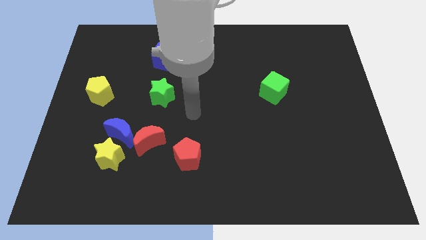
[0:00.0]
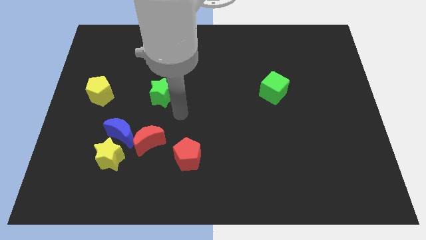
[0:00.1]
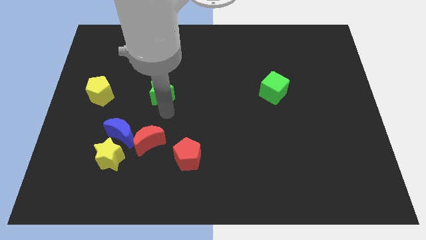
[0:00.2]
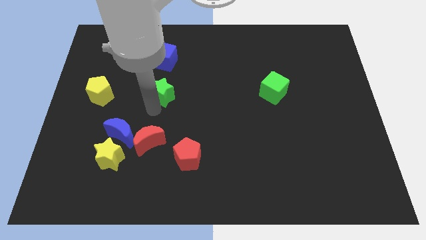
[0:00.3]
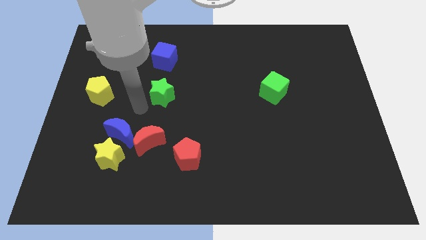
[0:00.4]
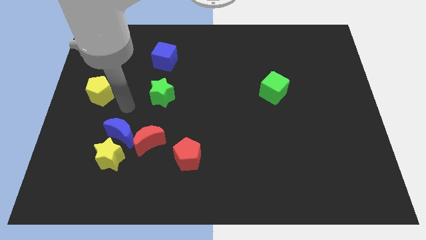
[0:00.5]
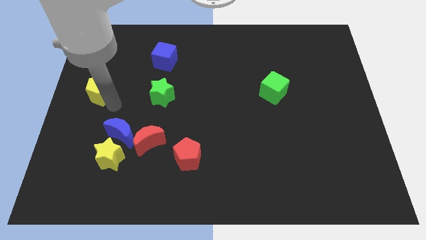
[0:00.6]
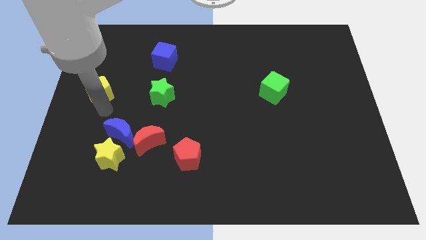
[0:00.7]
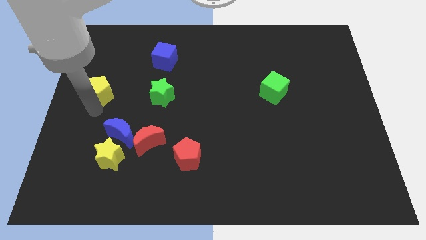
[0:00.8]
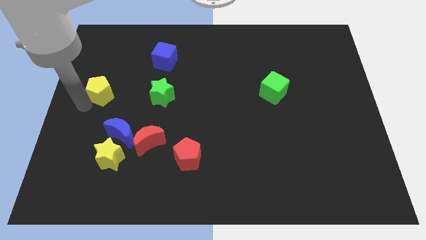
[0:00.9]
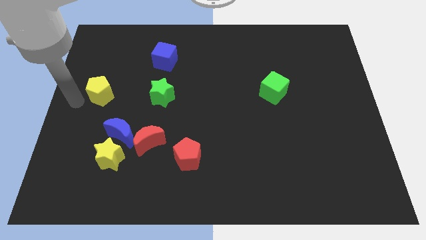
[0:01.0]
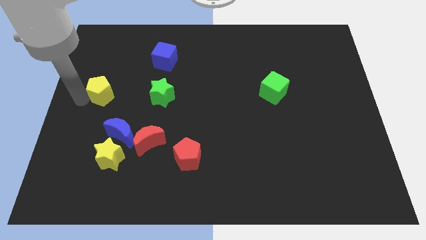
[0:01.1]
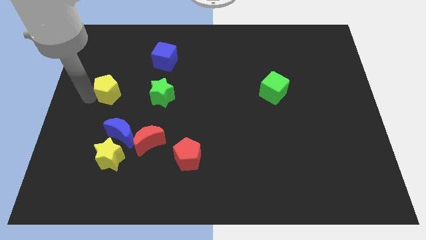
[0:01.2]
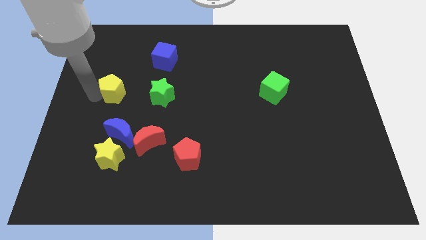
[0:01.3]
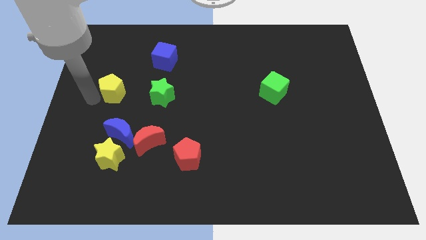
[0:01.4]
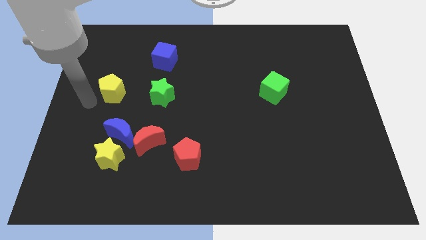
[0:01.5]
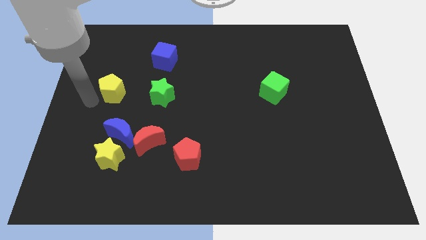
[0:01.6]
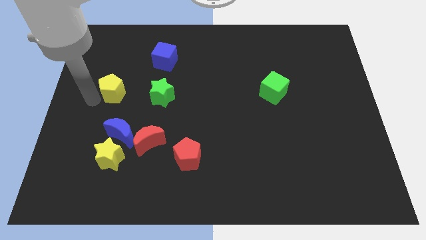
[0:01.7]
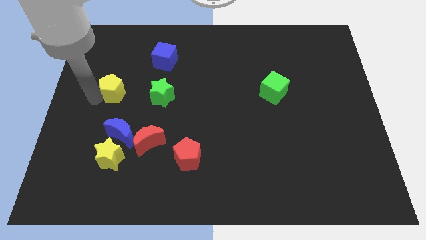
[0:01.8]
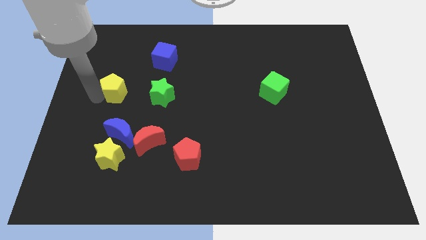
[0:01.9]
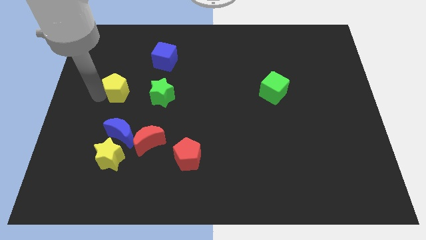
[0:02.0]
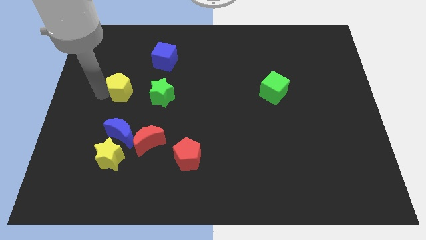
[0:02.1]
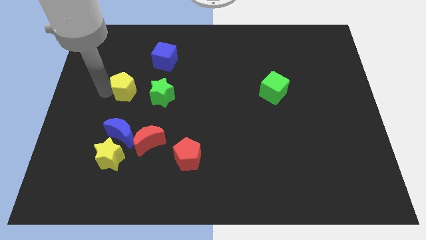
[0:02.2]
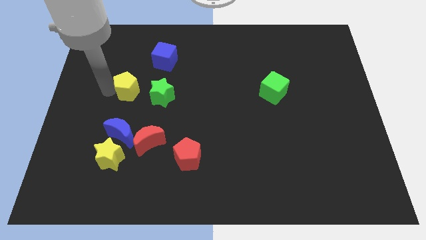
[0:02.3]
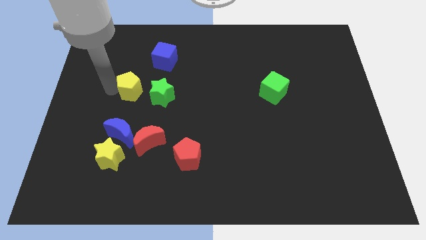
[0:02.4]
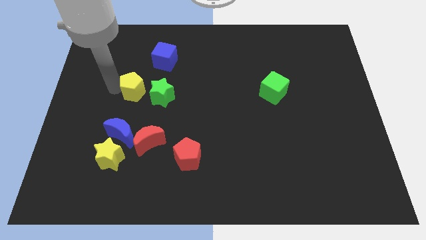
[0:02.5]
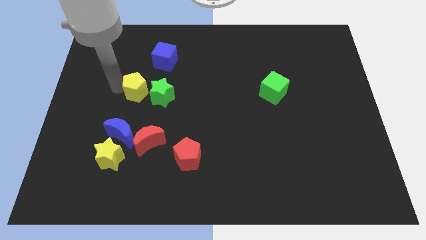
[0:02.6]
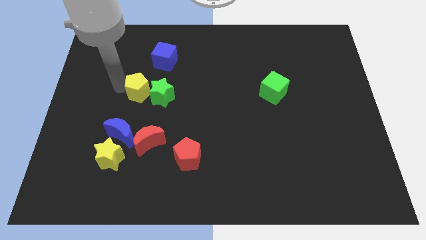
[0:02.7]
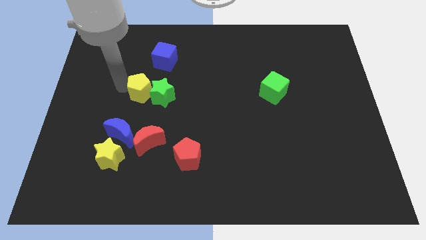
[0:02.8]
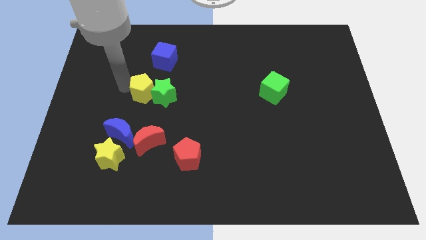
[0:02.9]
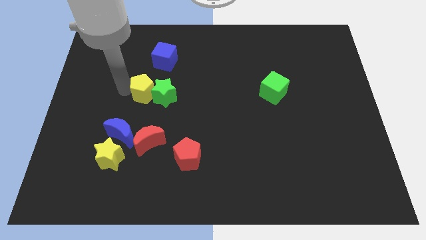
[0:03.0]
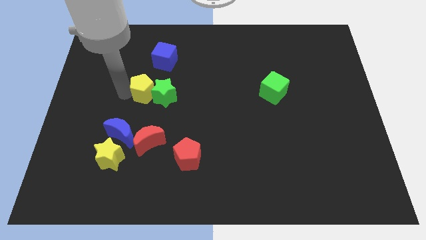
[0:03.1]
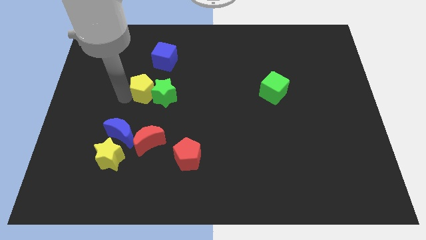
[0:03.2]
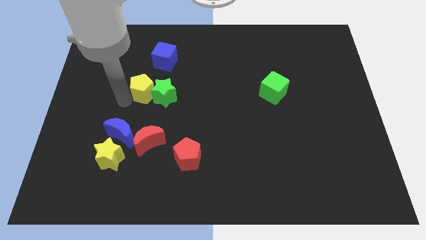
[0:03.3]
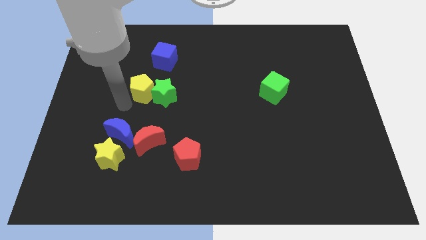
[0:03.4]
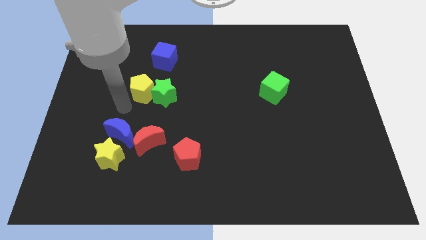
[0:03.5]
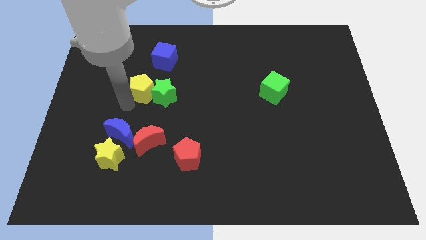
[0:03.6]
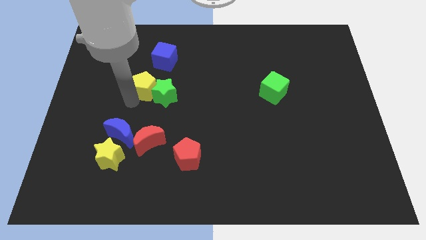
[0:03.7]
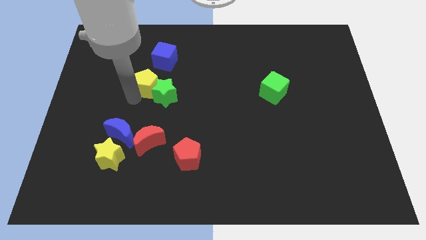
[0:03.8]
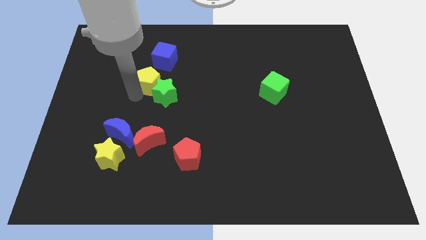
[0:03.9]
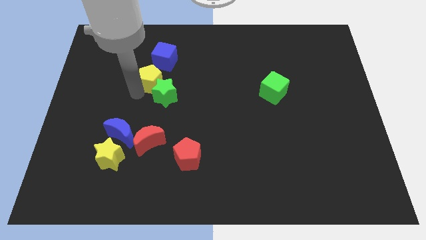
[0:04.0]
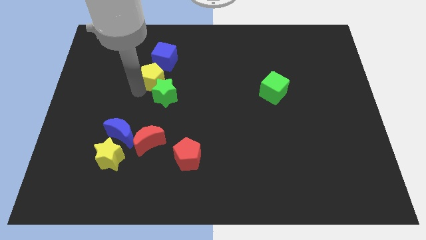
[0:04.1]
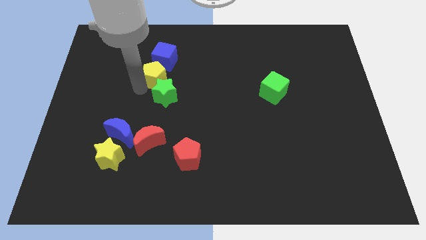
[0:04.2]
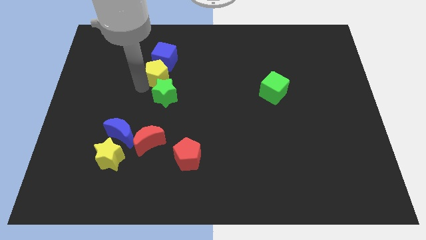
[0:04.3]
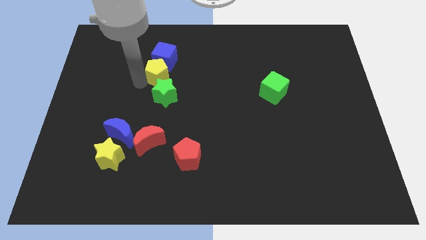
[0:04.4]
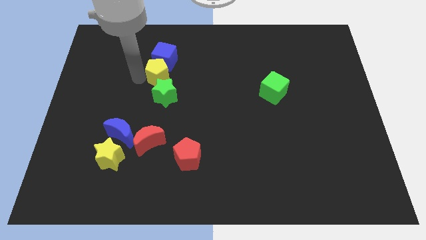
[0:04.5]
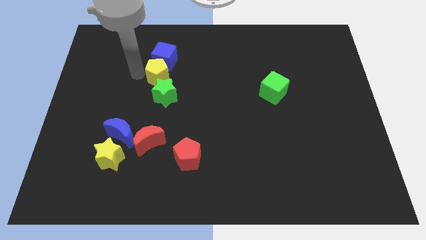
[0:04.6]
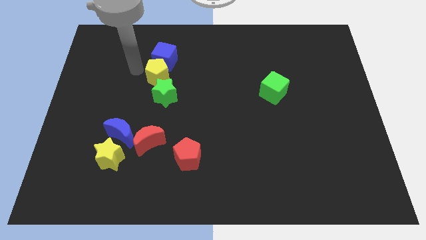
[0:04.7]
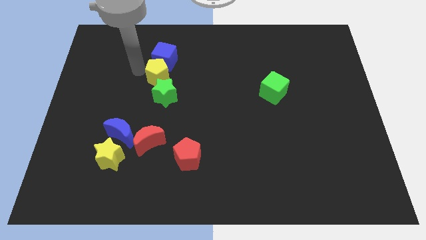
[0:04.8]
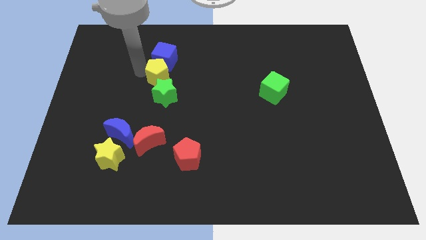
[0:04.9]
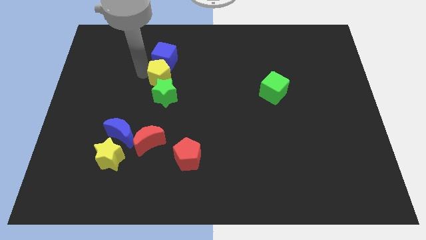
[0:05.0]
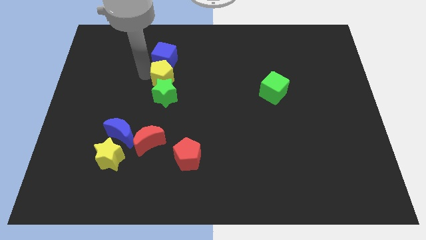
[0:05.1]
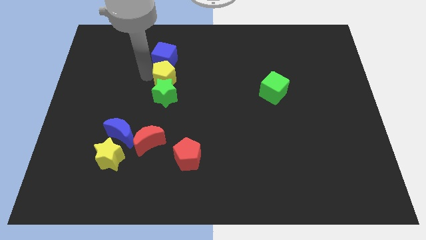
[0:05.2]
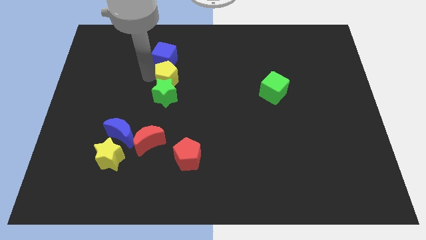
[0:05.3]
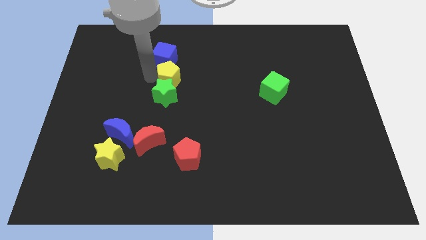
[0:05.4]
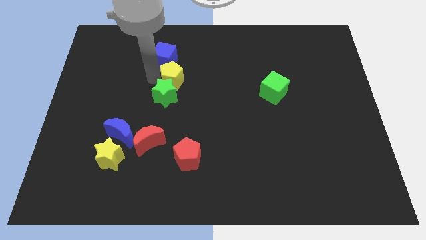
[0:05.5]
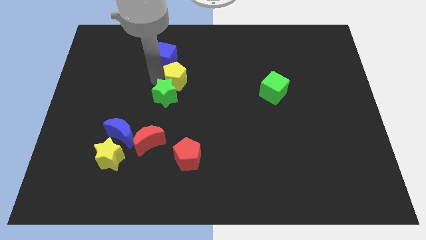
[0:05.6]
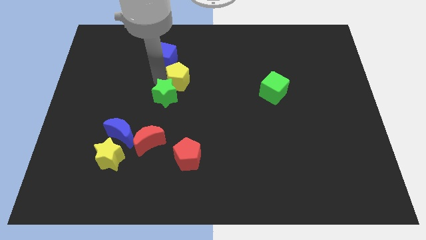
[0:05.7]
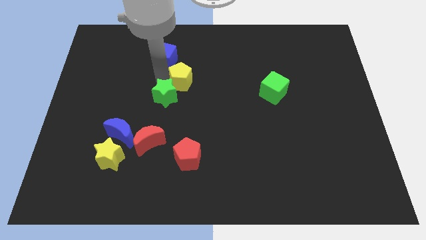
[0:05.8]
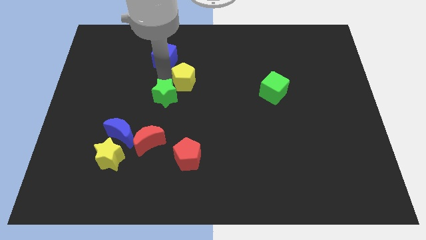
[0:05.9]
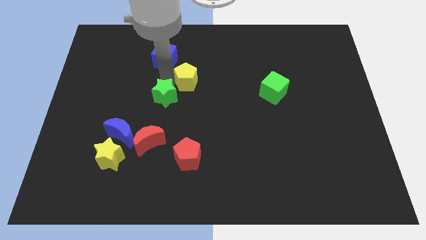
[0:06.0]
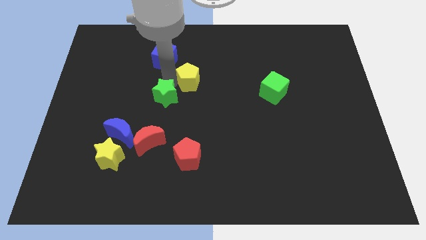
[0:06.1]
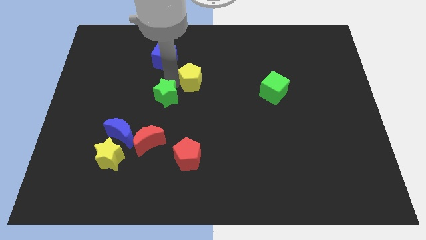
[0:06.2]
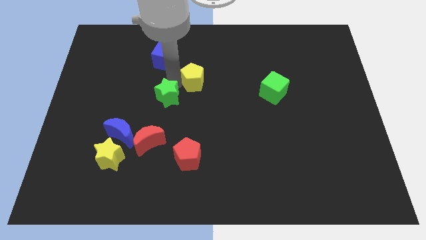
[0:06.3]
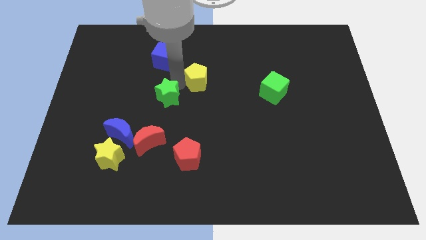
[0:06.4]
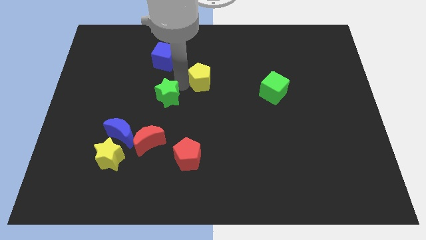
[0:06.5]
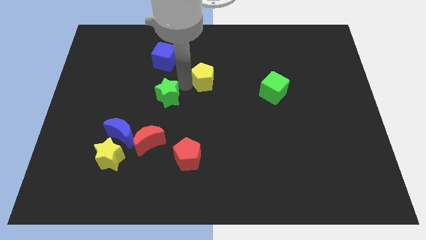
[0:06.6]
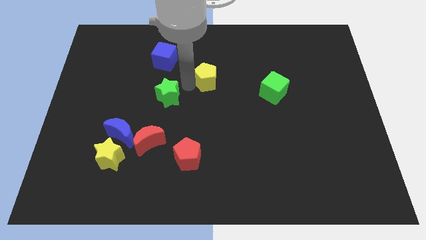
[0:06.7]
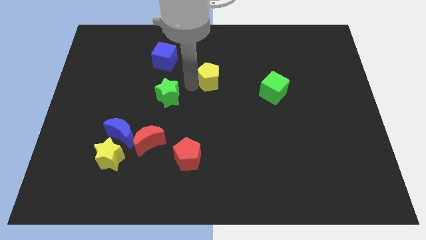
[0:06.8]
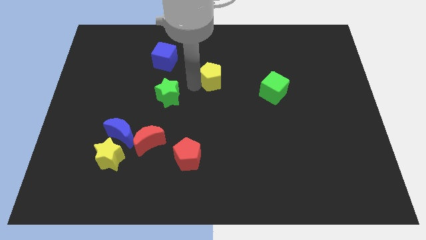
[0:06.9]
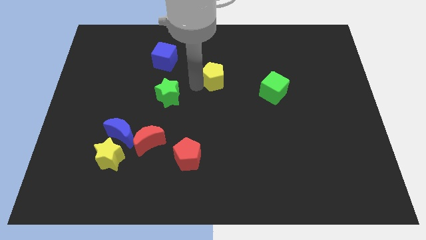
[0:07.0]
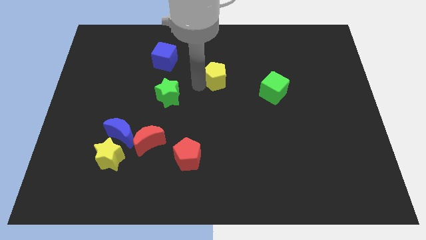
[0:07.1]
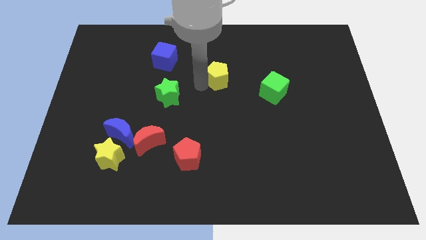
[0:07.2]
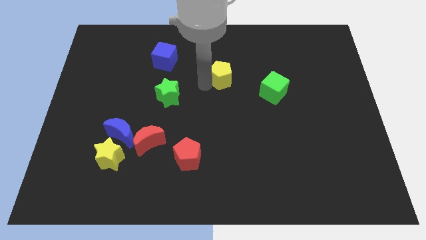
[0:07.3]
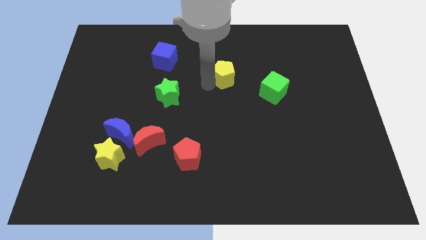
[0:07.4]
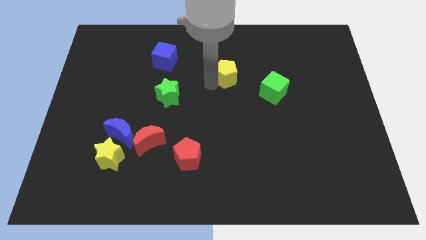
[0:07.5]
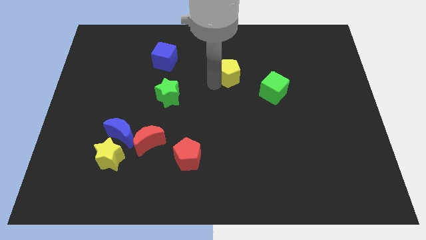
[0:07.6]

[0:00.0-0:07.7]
push the yellow pentagon diagonally up and to the left of the green cube
